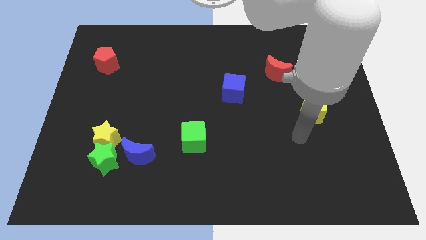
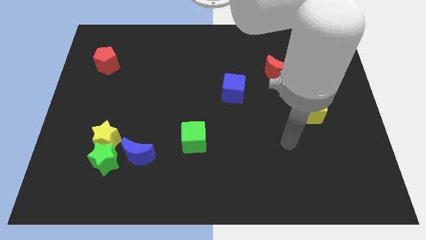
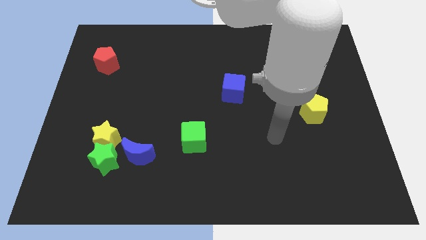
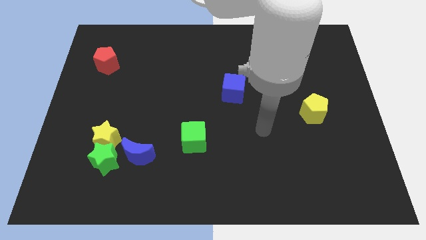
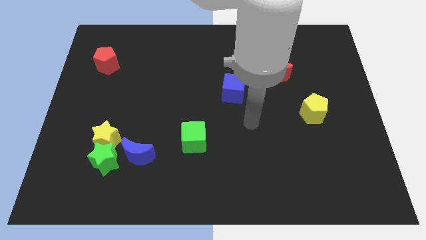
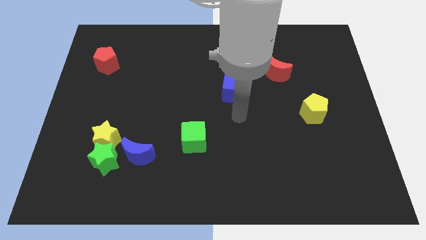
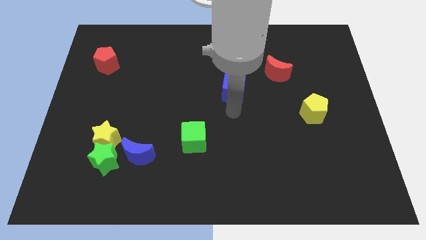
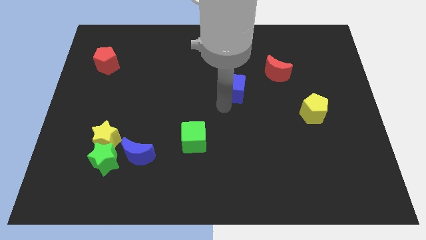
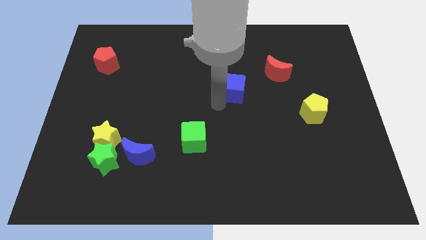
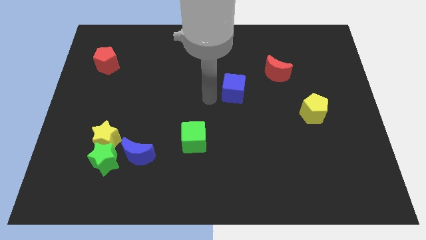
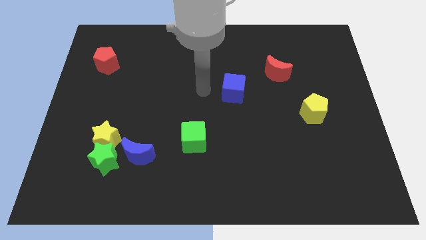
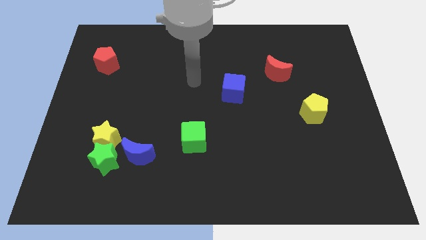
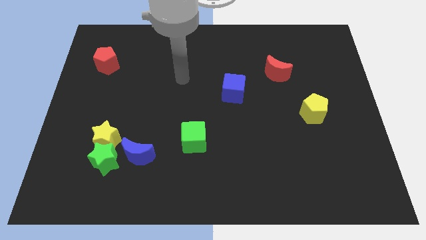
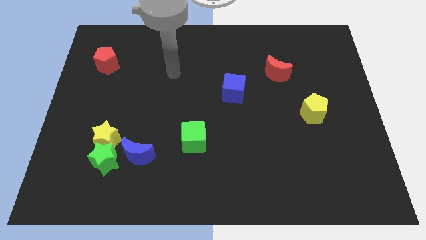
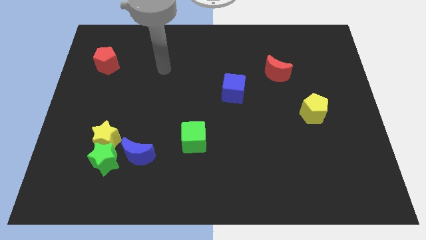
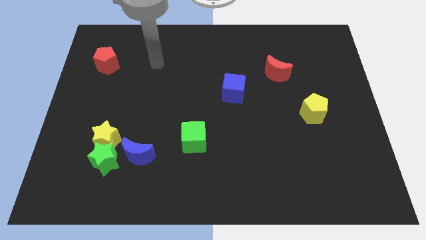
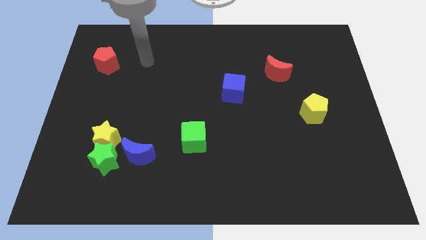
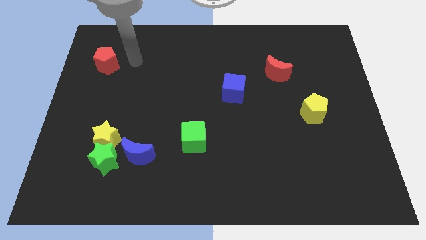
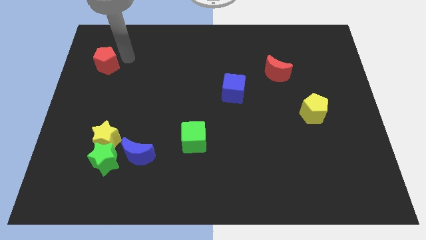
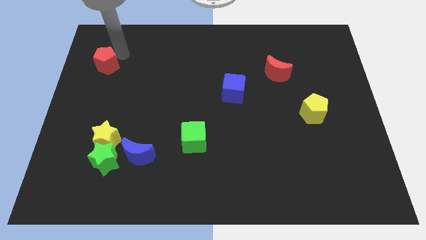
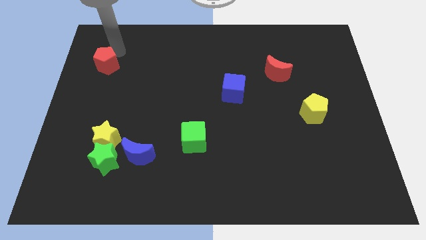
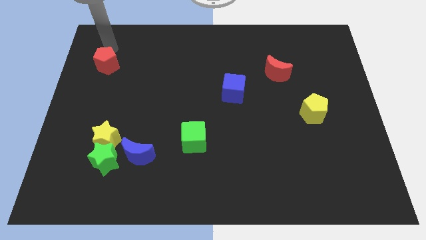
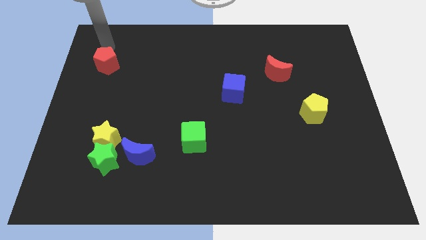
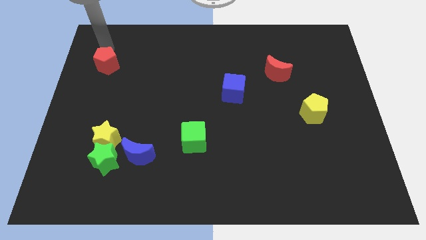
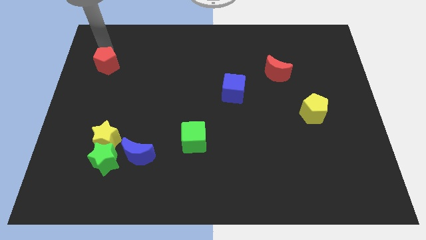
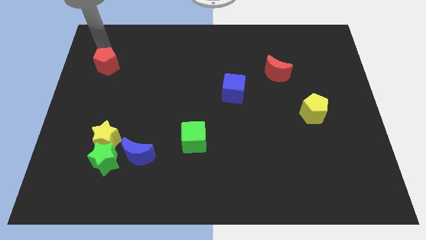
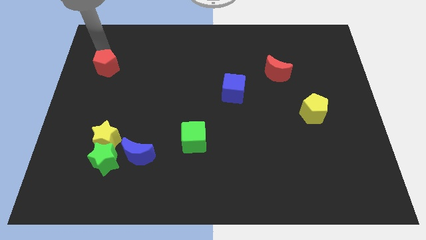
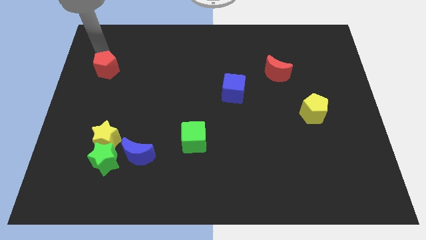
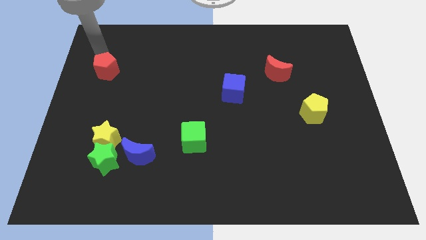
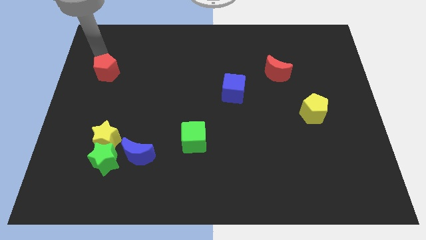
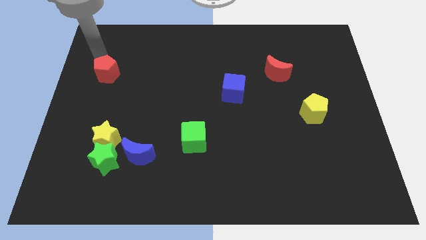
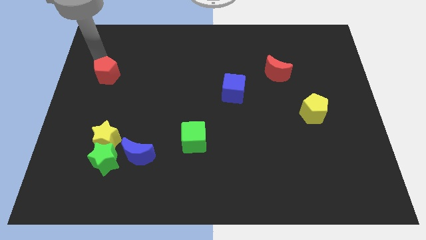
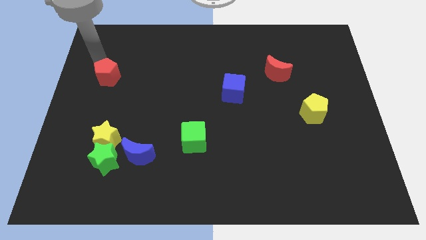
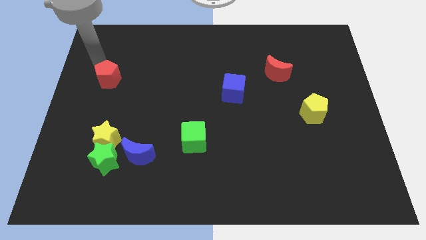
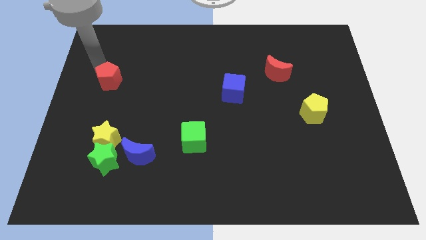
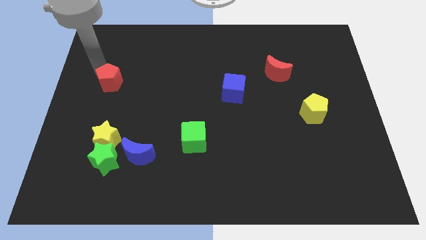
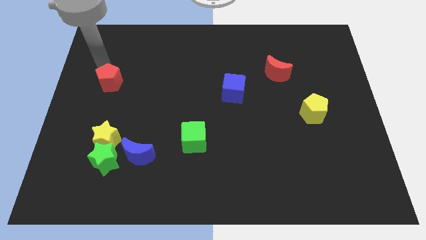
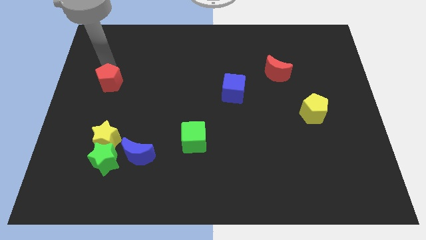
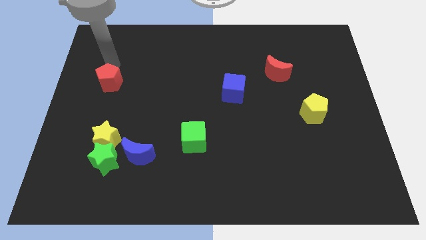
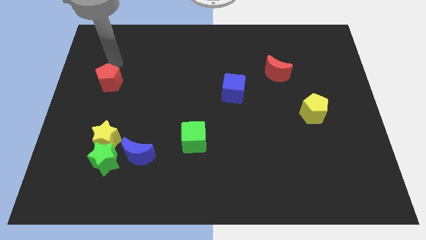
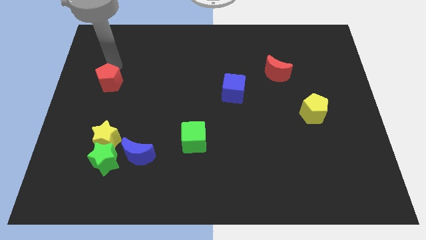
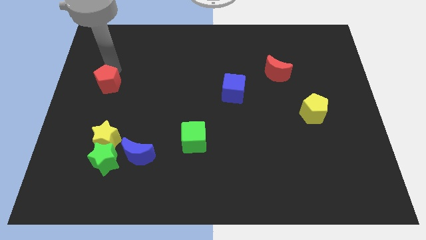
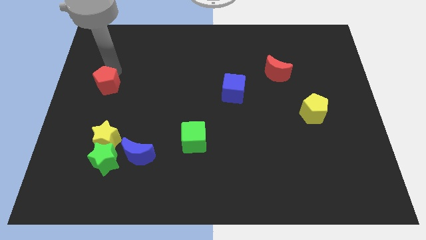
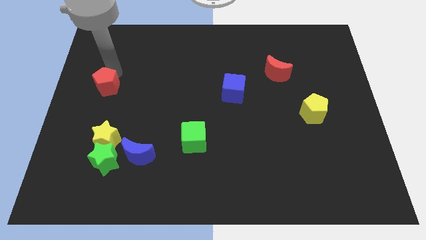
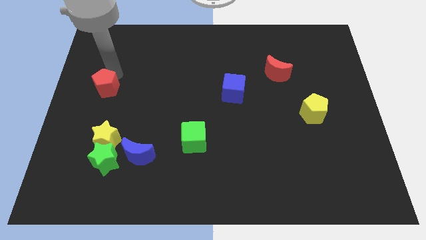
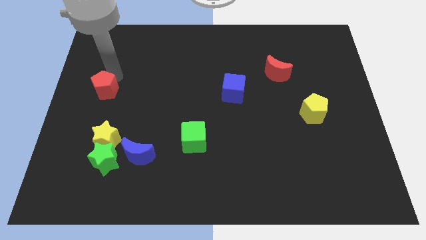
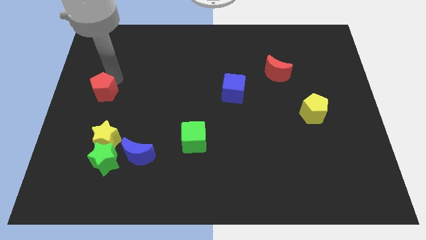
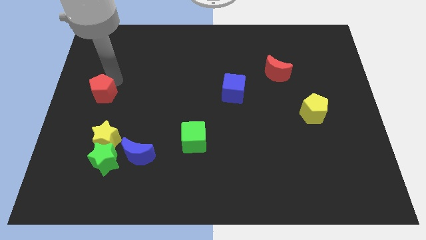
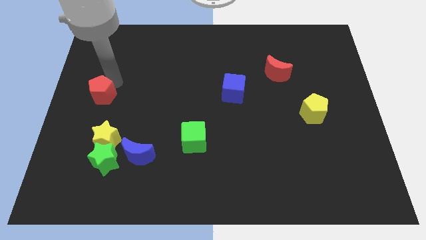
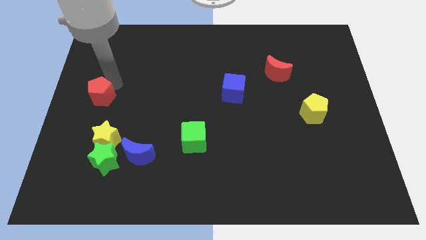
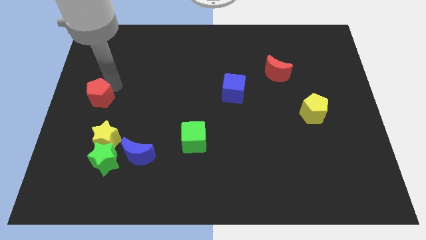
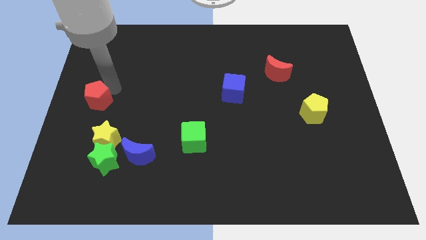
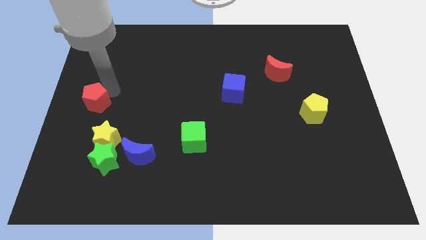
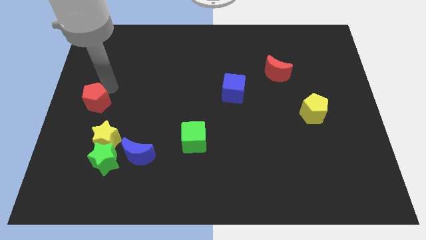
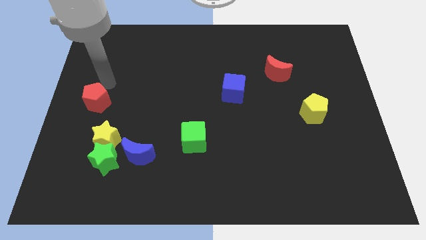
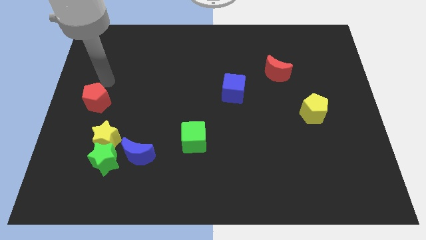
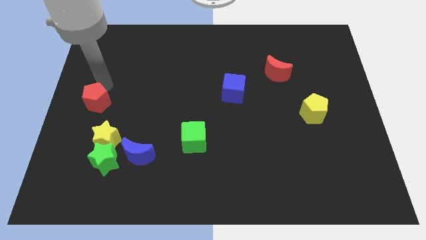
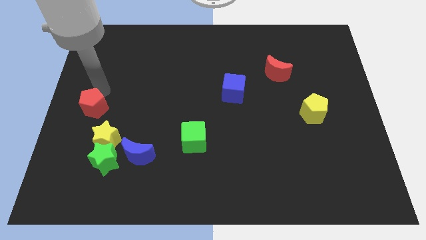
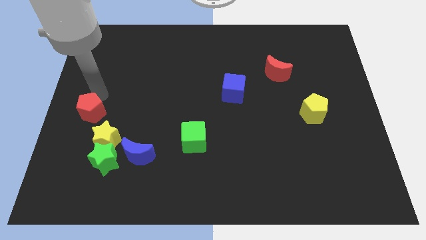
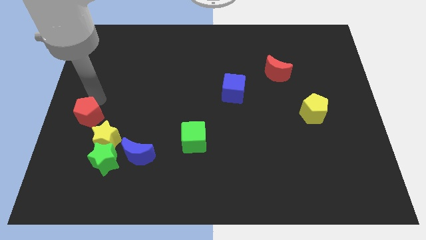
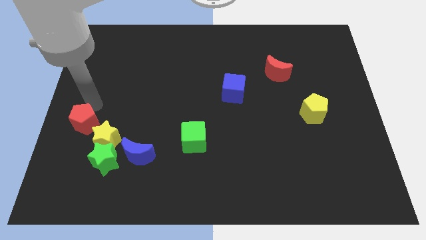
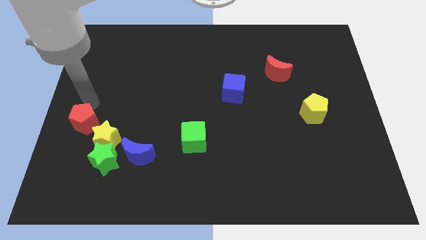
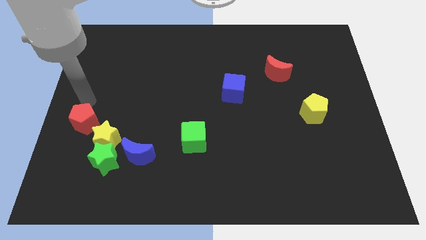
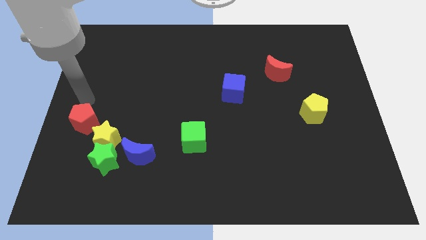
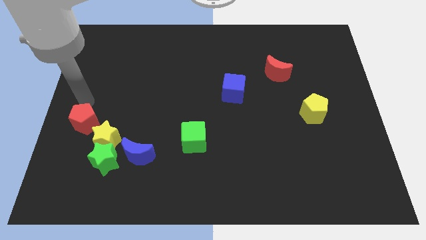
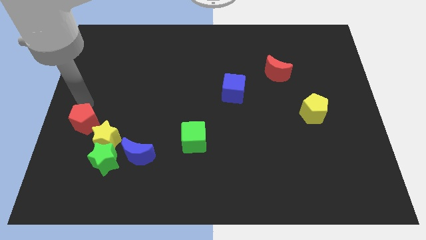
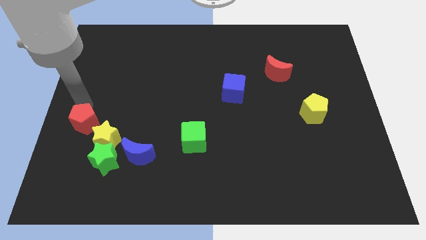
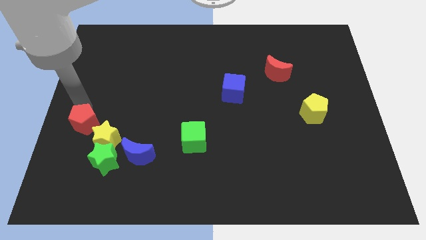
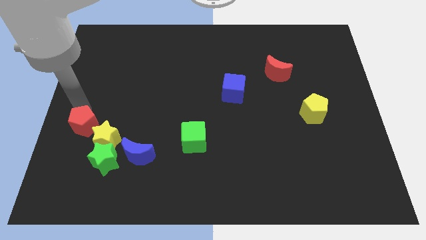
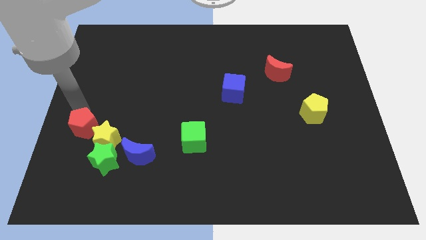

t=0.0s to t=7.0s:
push the red pentagon down

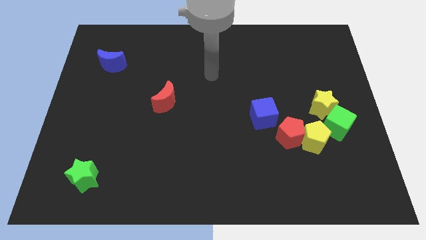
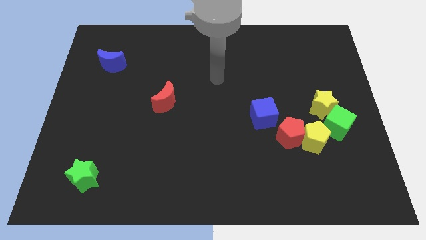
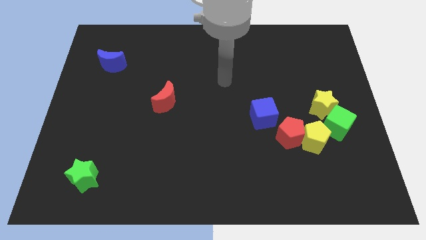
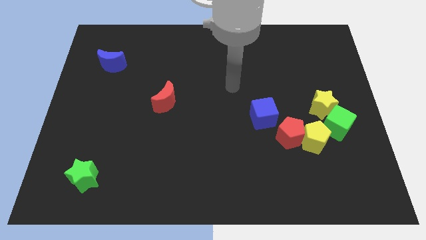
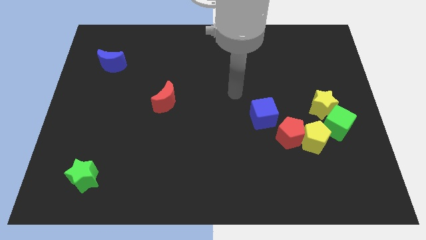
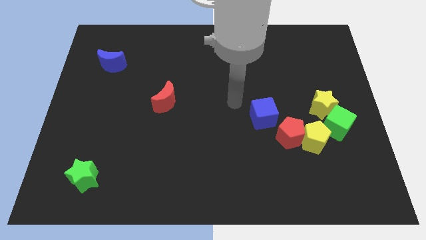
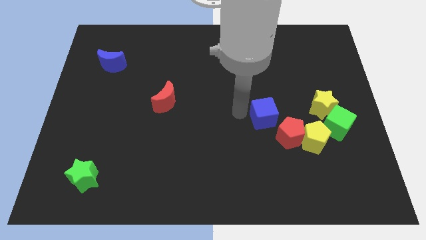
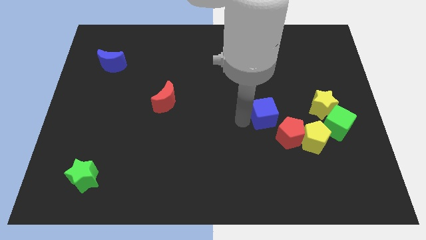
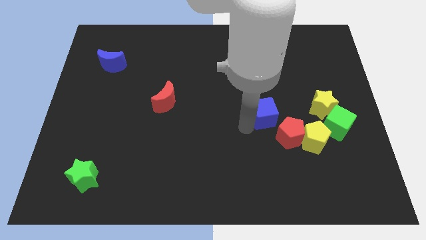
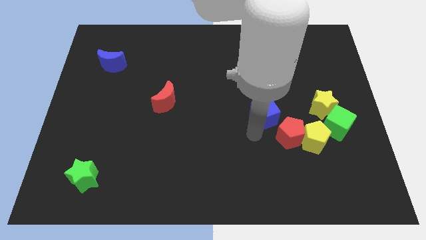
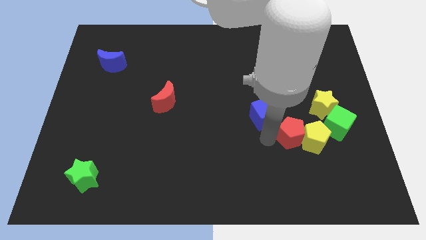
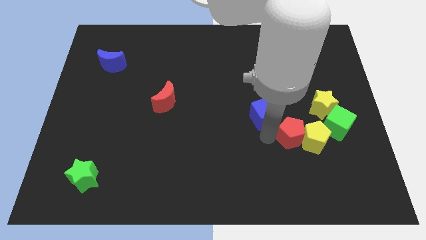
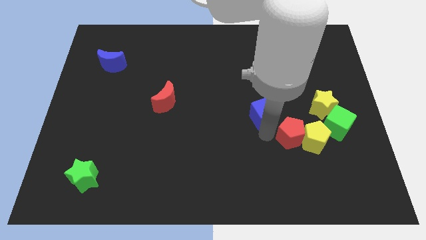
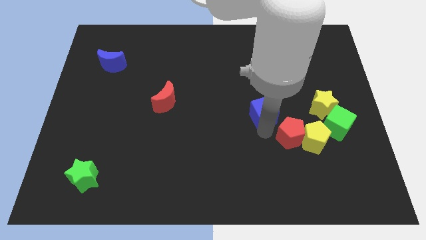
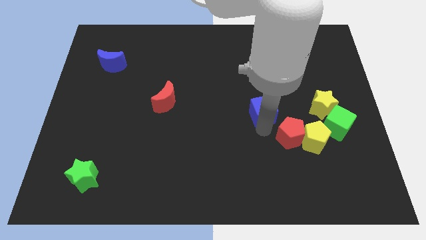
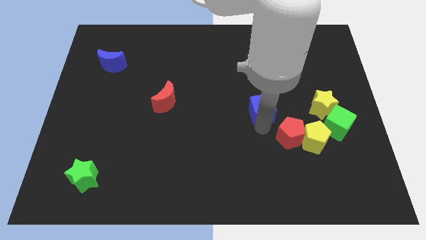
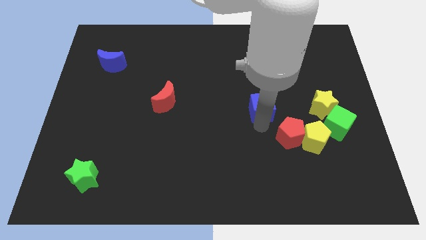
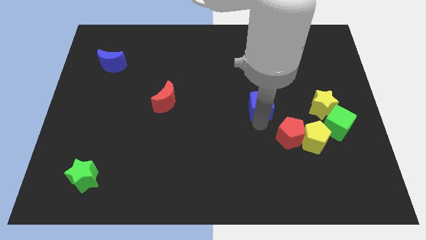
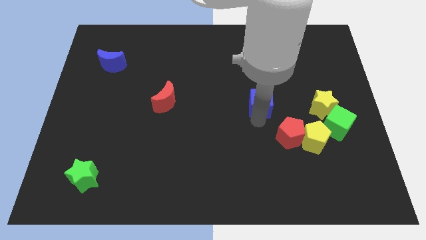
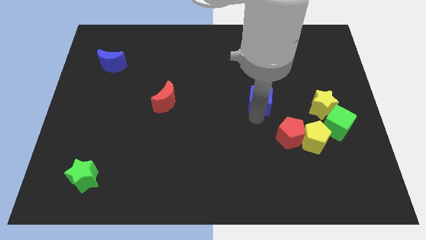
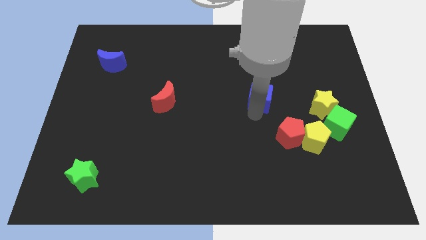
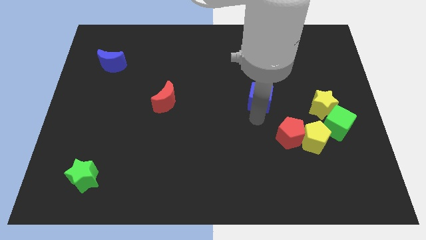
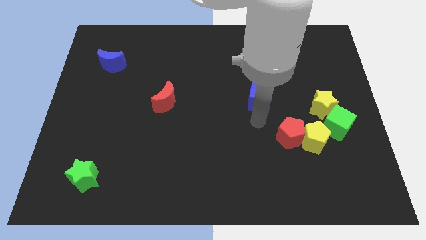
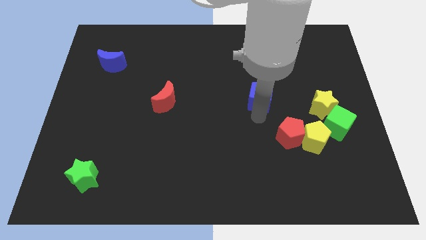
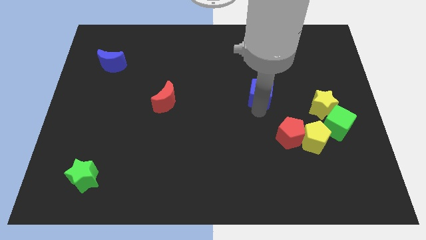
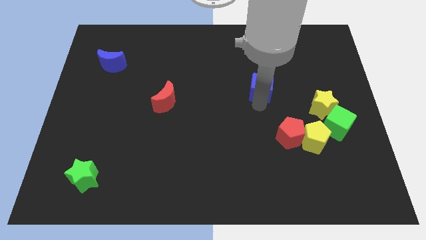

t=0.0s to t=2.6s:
slide the blue cube a little up
